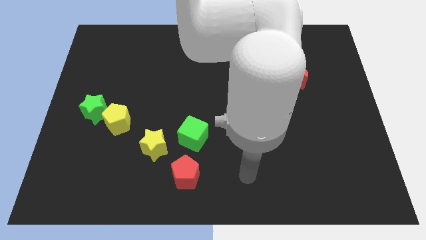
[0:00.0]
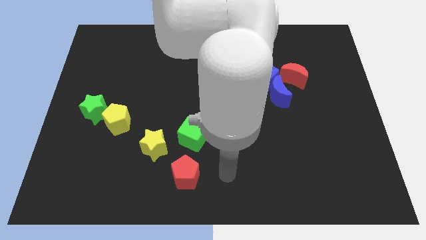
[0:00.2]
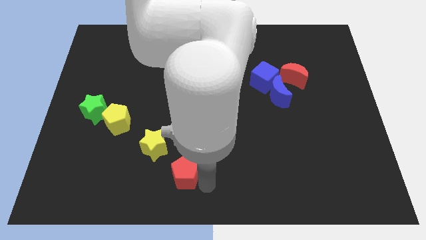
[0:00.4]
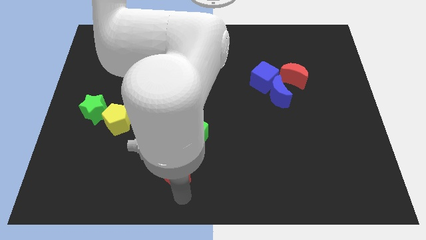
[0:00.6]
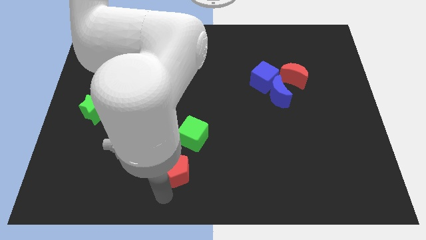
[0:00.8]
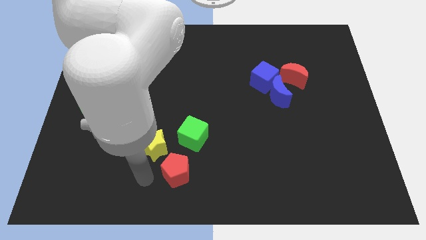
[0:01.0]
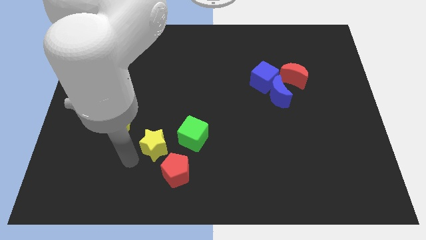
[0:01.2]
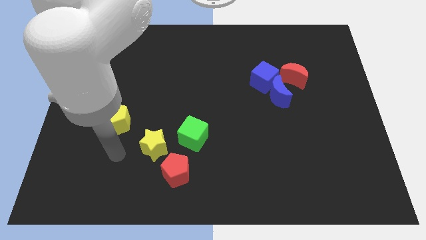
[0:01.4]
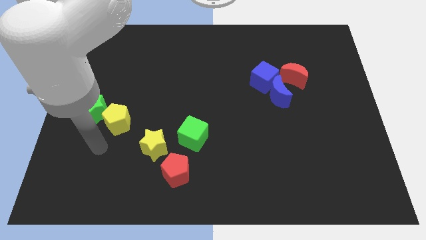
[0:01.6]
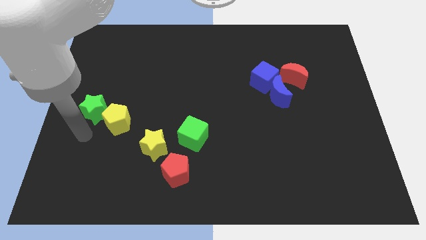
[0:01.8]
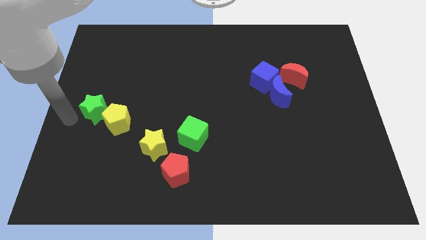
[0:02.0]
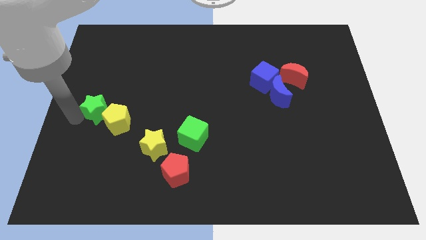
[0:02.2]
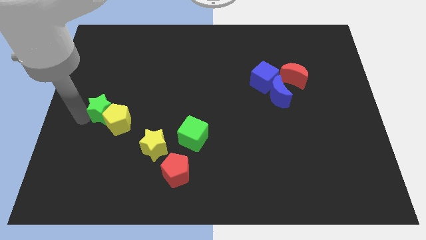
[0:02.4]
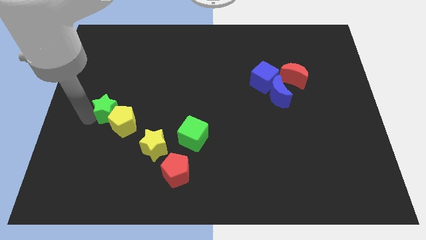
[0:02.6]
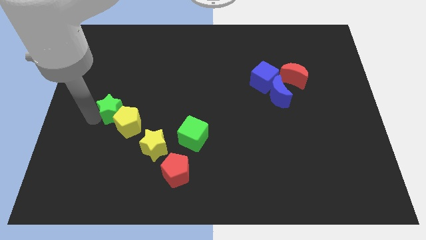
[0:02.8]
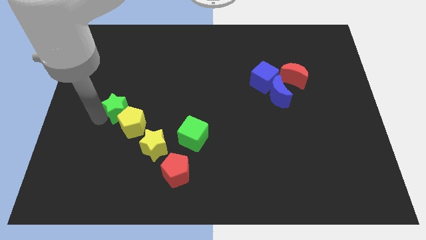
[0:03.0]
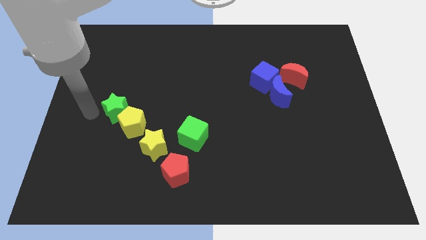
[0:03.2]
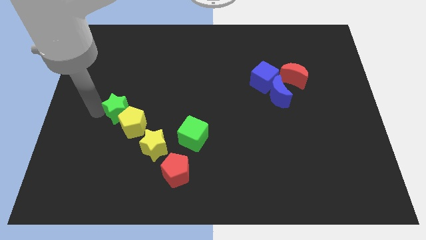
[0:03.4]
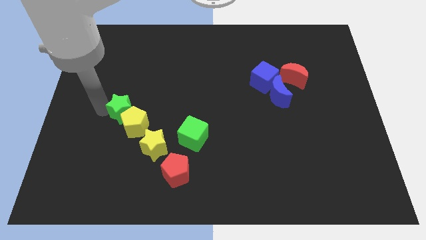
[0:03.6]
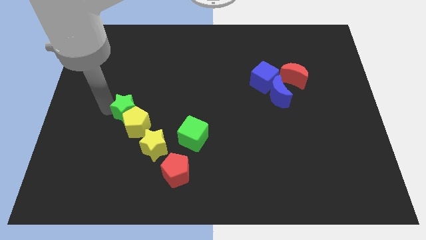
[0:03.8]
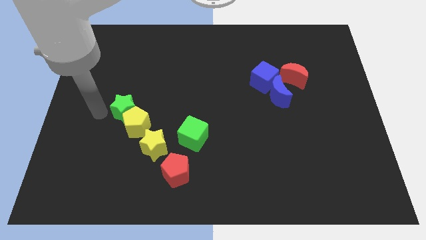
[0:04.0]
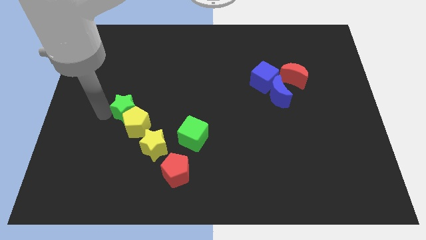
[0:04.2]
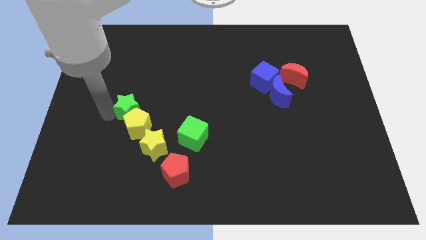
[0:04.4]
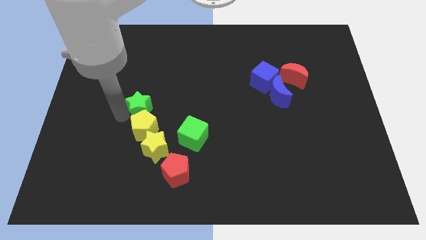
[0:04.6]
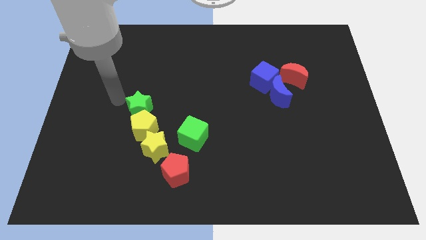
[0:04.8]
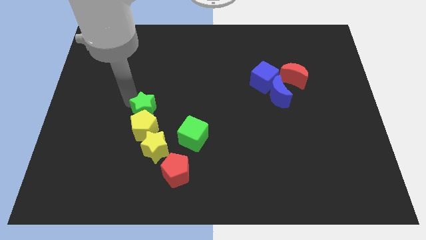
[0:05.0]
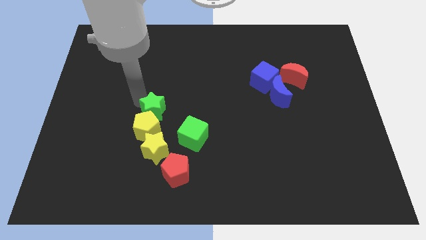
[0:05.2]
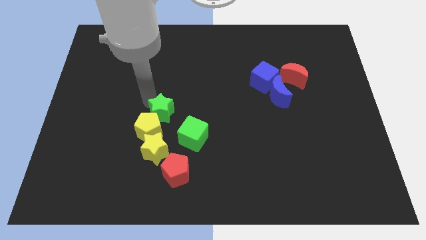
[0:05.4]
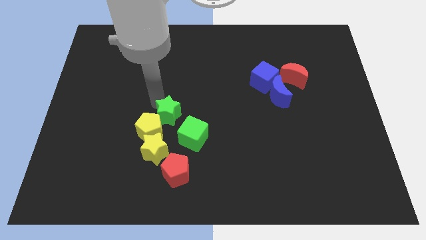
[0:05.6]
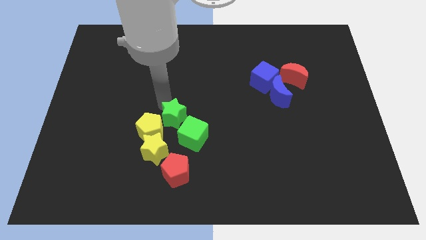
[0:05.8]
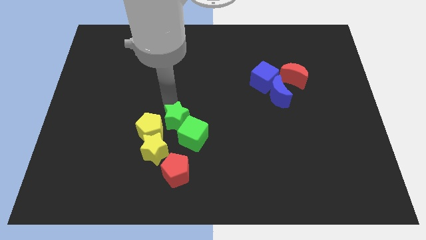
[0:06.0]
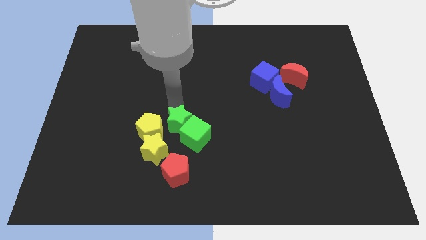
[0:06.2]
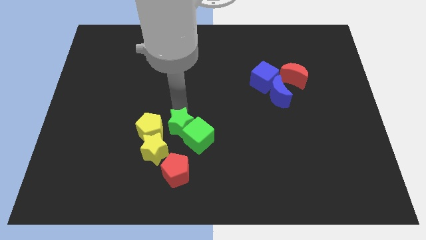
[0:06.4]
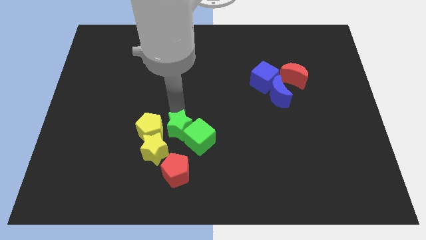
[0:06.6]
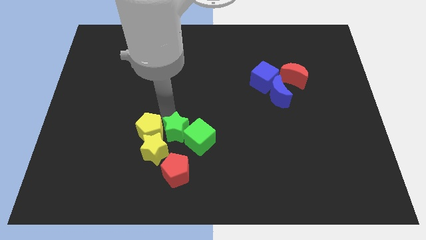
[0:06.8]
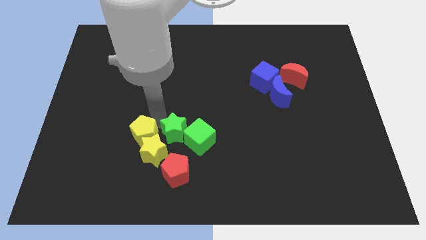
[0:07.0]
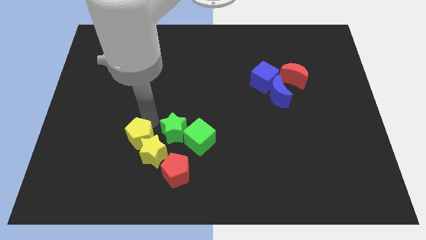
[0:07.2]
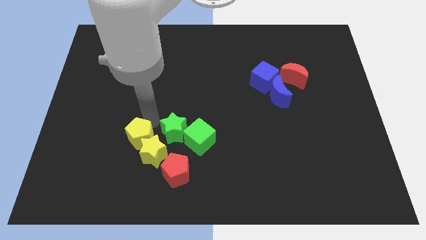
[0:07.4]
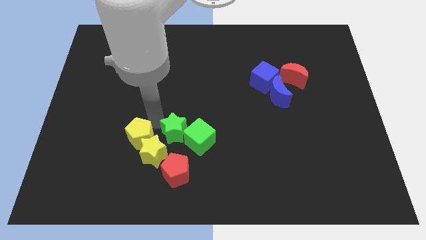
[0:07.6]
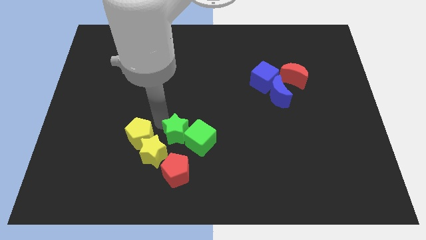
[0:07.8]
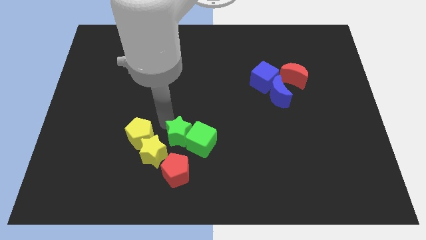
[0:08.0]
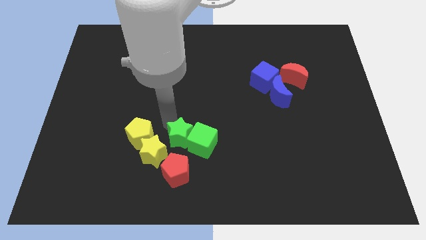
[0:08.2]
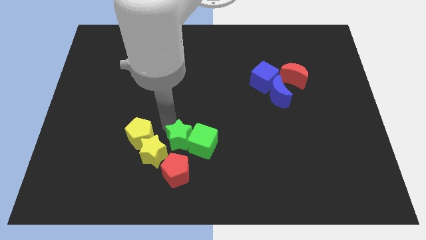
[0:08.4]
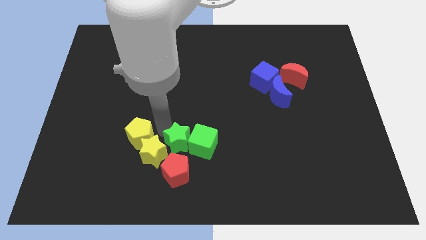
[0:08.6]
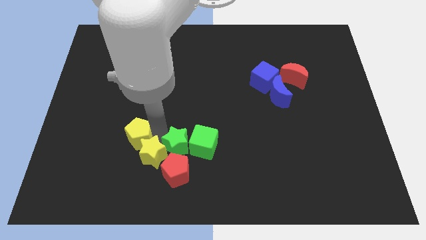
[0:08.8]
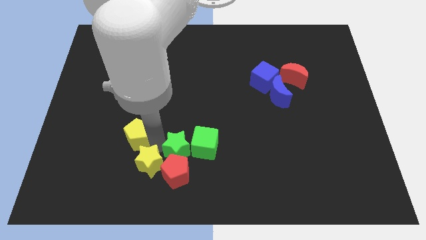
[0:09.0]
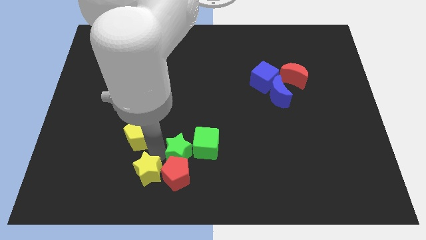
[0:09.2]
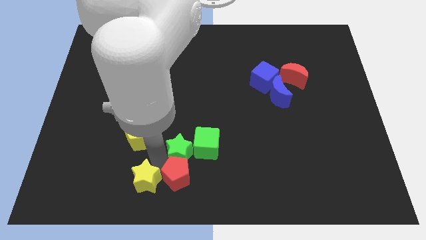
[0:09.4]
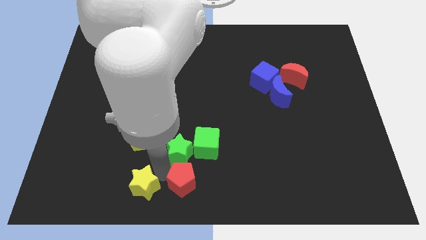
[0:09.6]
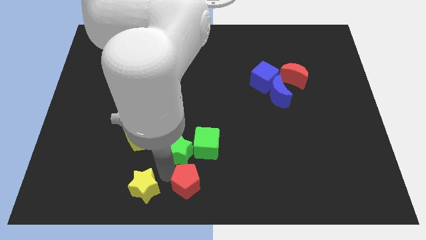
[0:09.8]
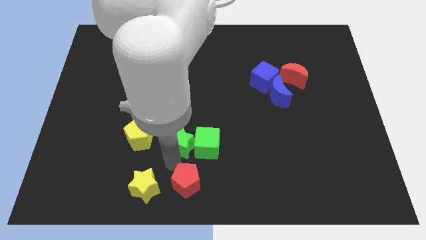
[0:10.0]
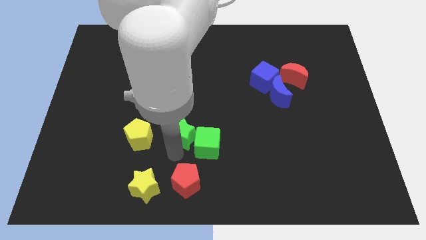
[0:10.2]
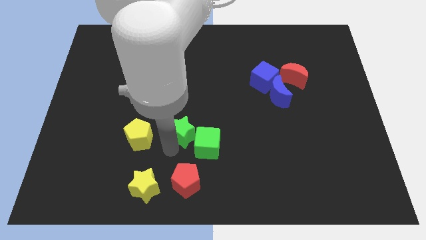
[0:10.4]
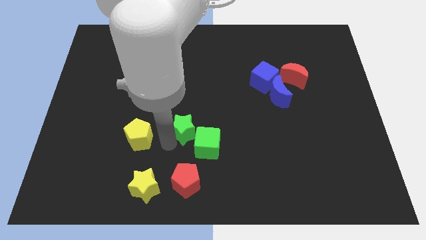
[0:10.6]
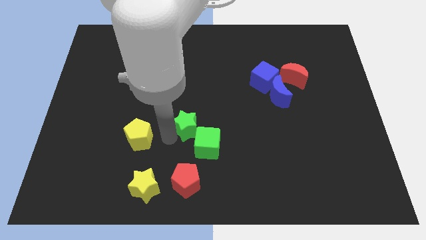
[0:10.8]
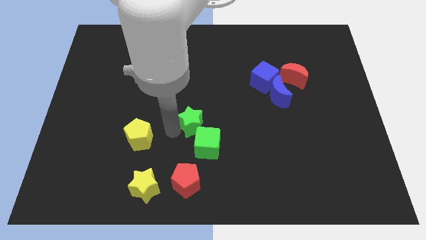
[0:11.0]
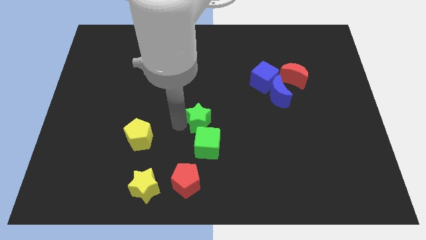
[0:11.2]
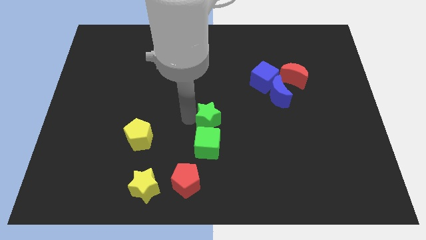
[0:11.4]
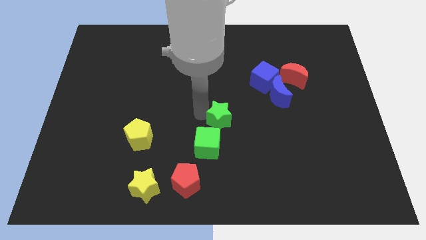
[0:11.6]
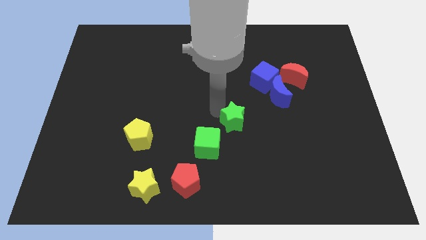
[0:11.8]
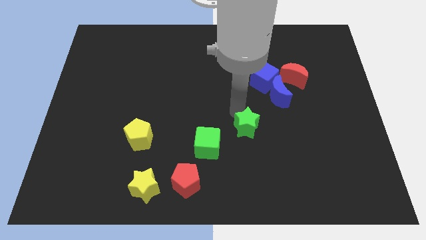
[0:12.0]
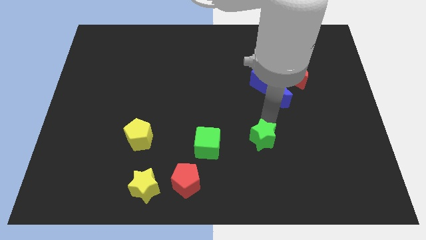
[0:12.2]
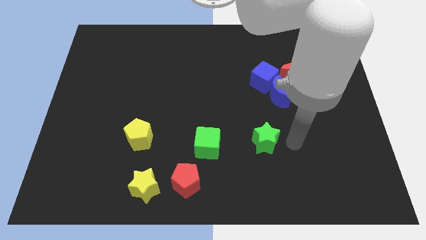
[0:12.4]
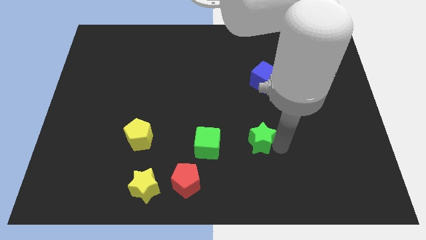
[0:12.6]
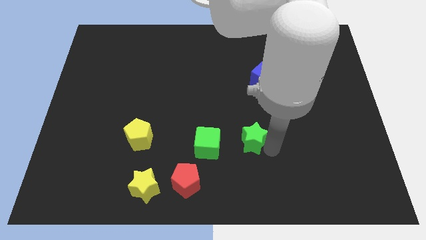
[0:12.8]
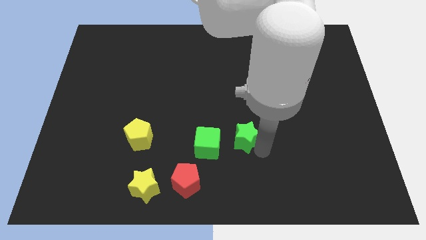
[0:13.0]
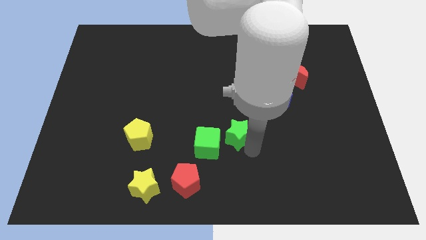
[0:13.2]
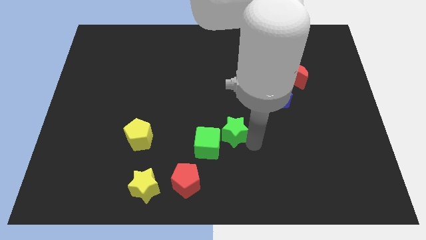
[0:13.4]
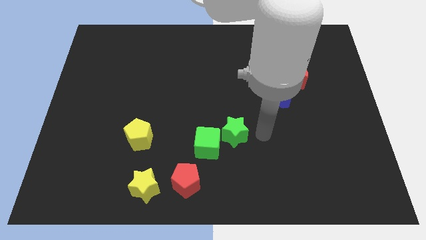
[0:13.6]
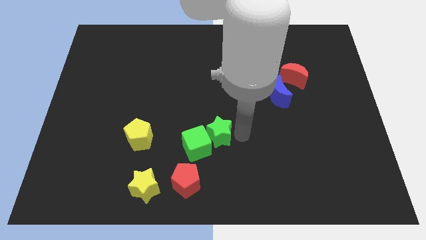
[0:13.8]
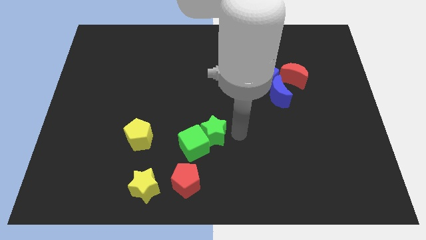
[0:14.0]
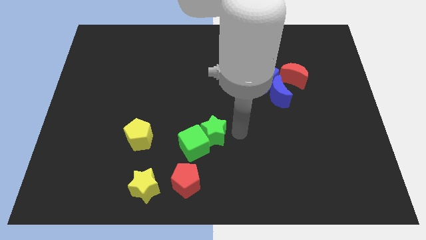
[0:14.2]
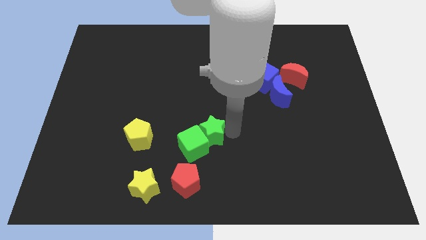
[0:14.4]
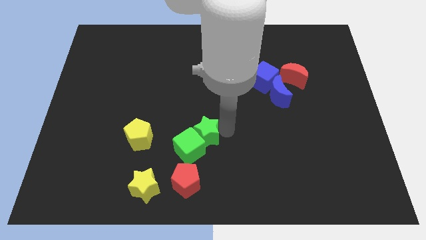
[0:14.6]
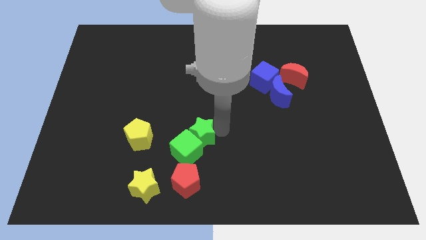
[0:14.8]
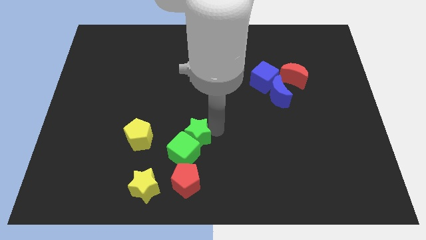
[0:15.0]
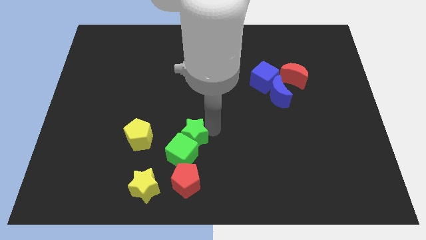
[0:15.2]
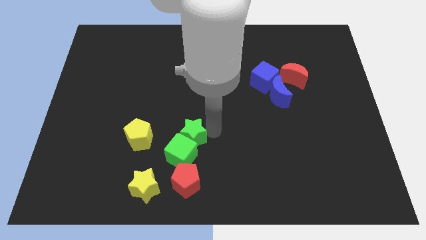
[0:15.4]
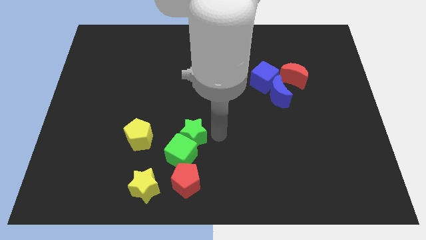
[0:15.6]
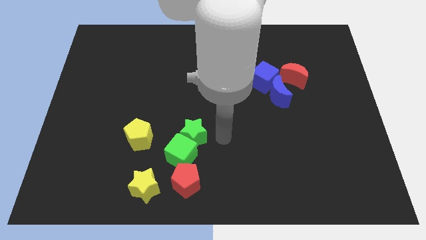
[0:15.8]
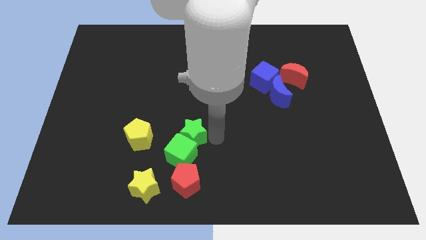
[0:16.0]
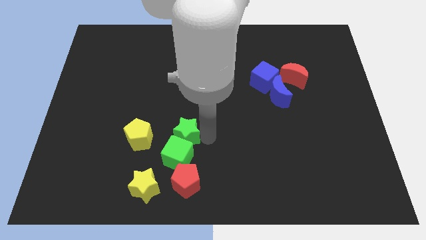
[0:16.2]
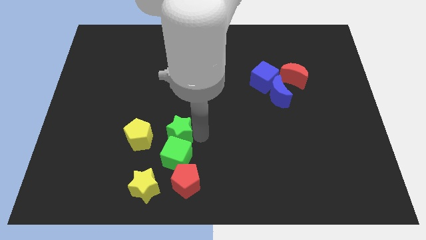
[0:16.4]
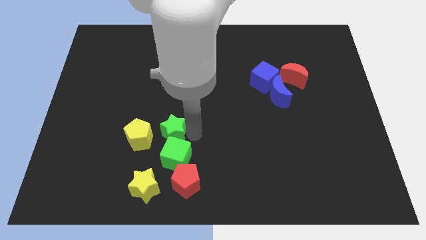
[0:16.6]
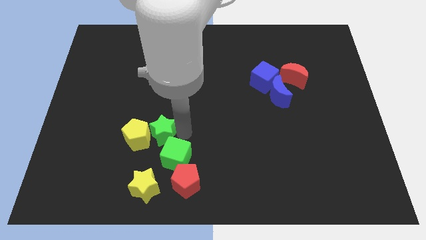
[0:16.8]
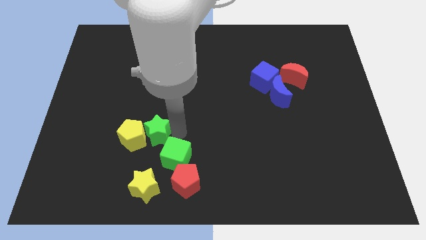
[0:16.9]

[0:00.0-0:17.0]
slide the green star just right of the yellow pentagon
